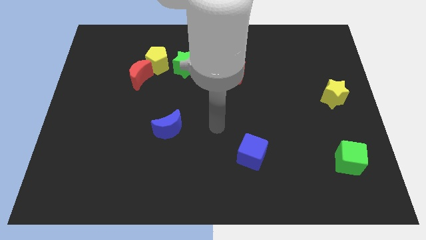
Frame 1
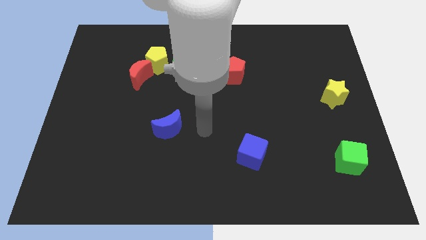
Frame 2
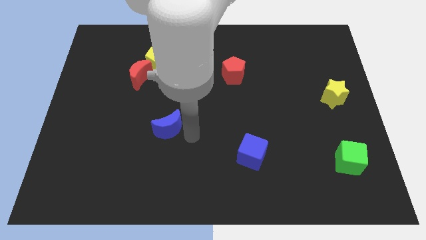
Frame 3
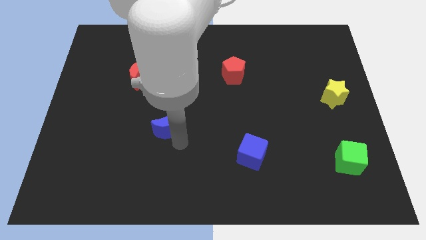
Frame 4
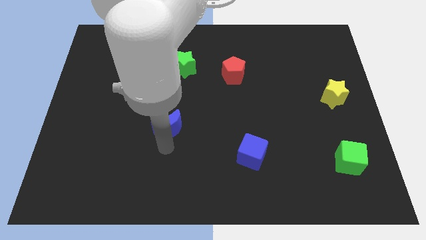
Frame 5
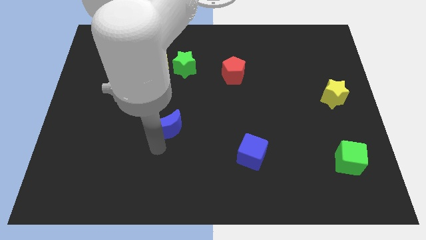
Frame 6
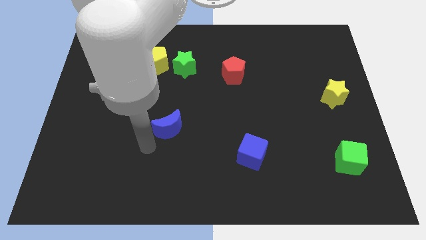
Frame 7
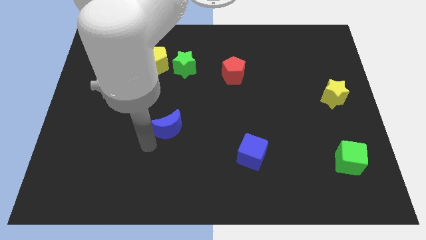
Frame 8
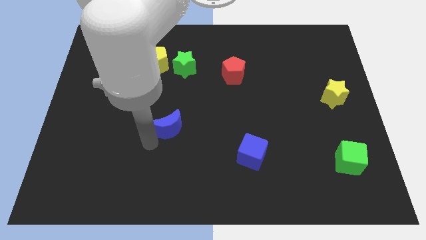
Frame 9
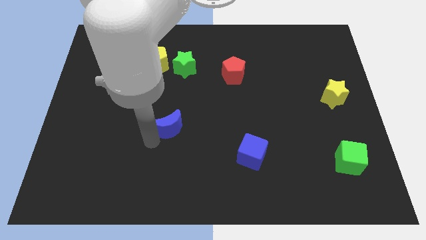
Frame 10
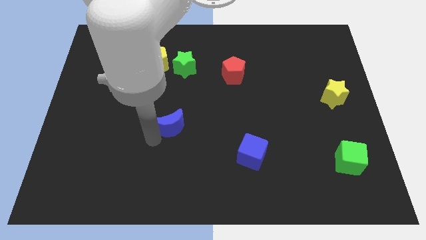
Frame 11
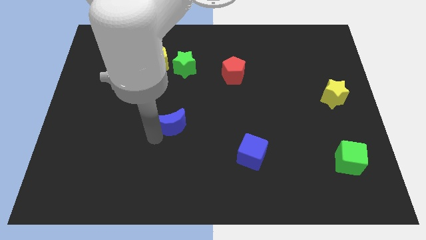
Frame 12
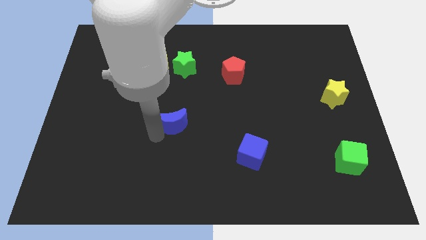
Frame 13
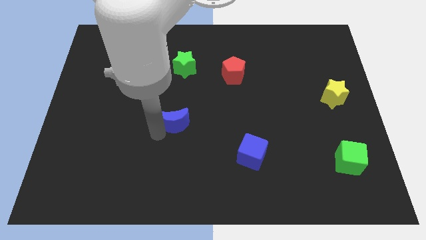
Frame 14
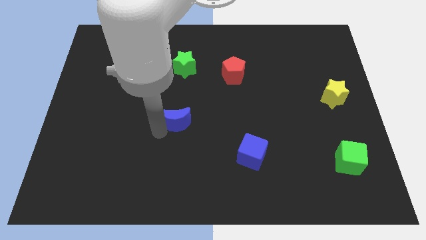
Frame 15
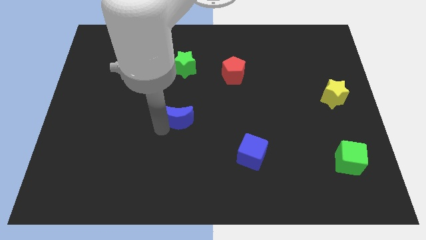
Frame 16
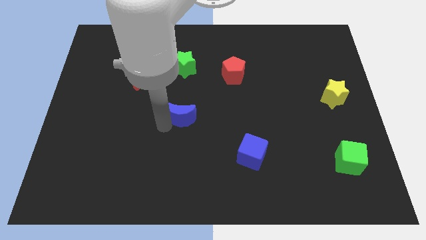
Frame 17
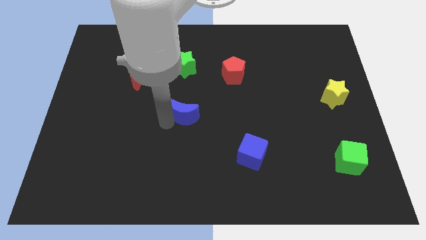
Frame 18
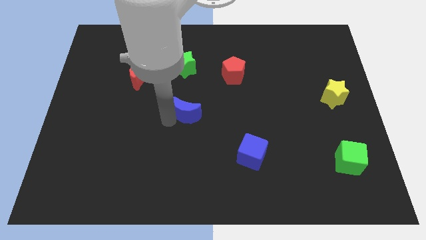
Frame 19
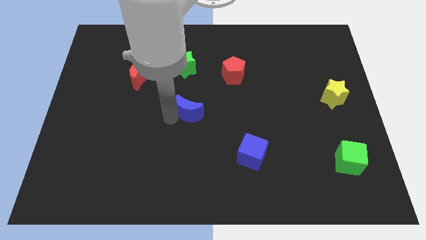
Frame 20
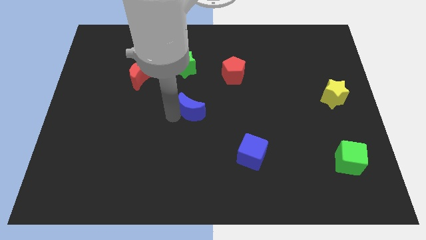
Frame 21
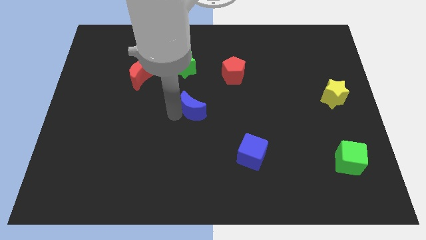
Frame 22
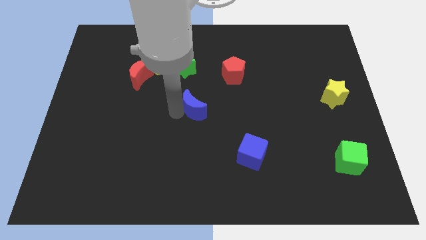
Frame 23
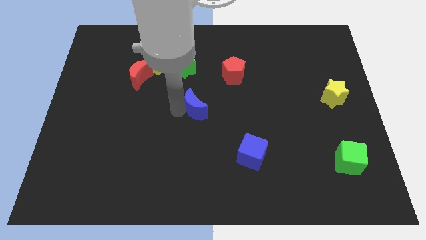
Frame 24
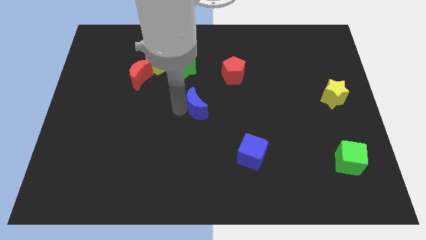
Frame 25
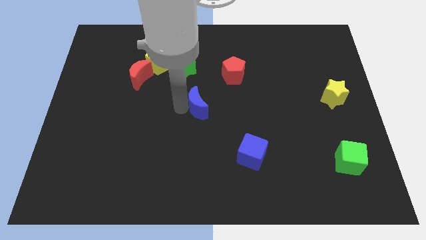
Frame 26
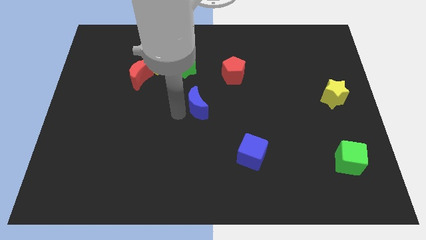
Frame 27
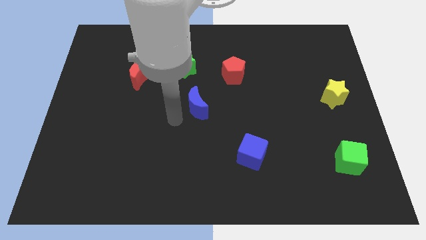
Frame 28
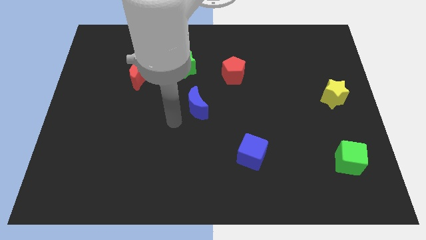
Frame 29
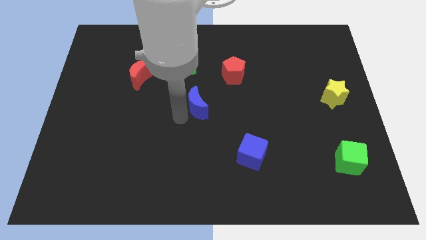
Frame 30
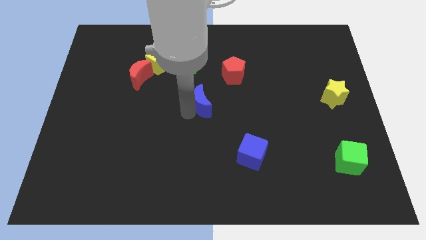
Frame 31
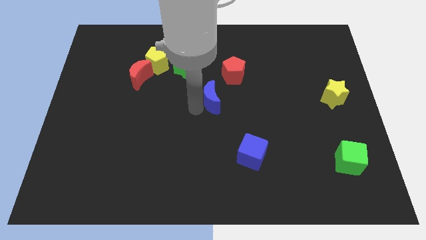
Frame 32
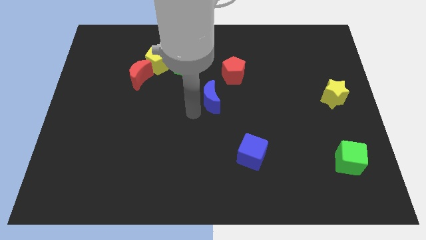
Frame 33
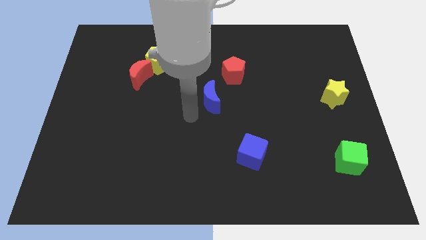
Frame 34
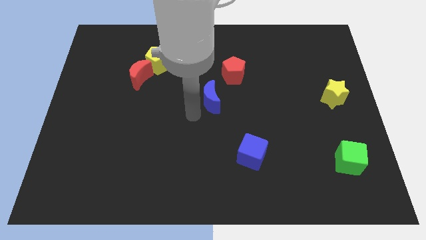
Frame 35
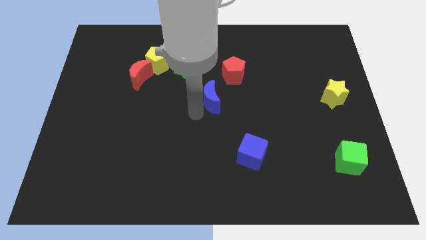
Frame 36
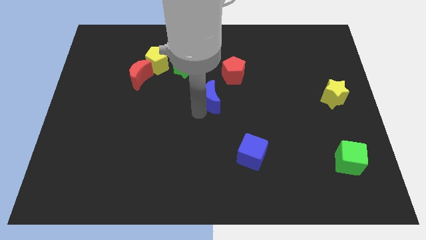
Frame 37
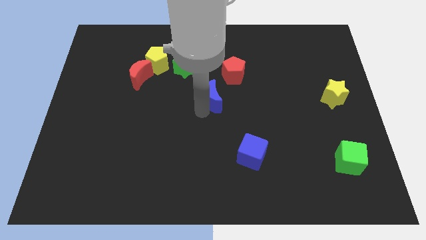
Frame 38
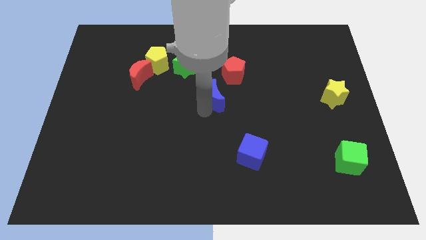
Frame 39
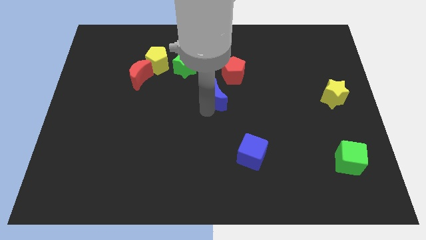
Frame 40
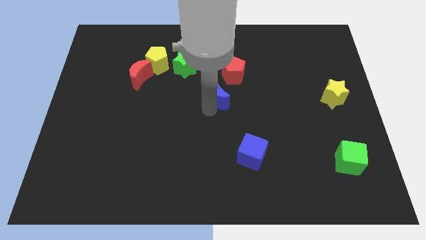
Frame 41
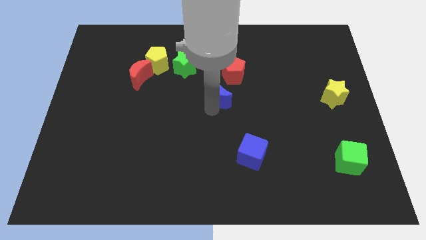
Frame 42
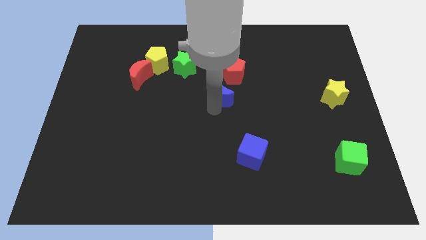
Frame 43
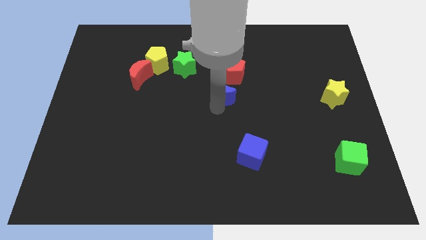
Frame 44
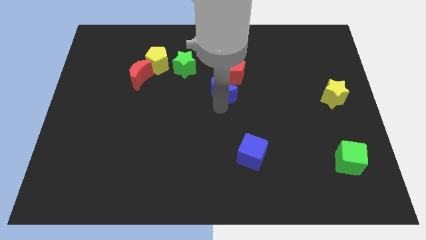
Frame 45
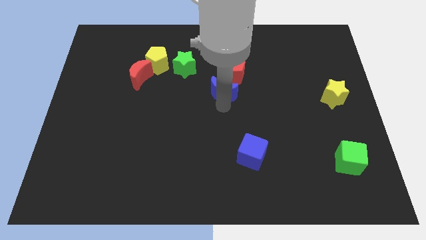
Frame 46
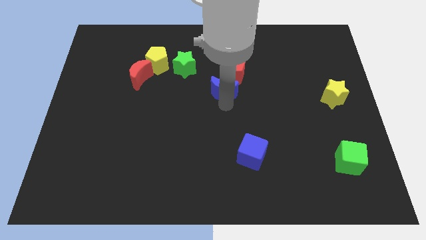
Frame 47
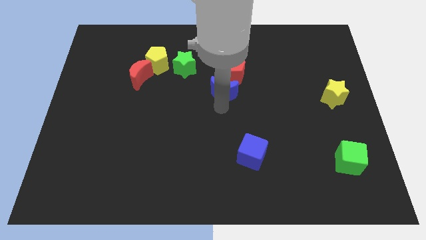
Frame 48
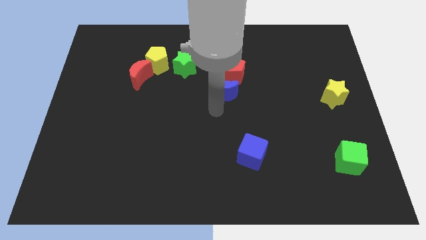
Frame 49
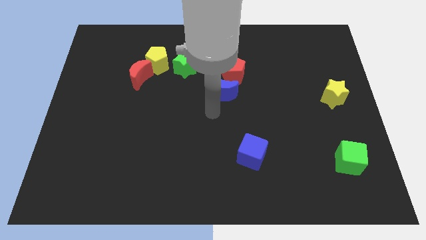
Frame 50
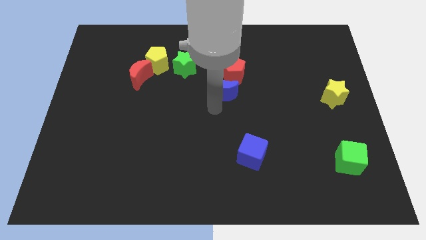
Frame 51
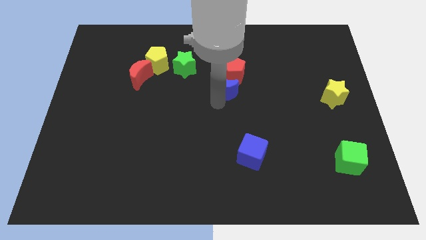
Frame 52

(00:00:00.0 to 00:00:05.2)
put the blue moon close to the red pentagon

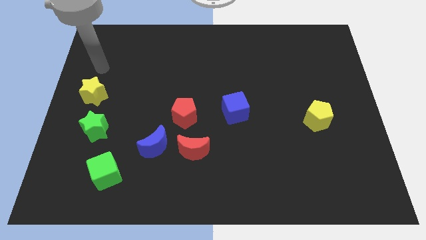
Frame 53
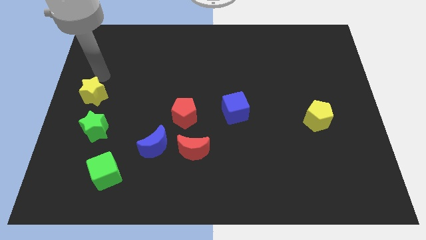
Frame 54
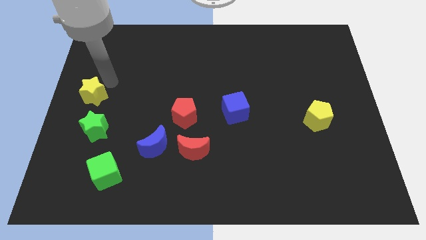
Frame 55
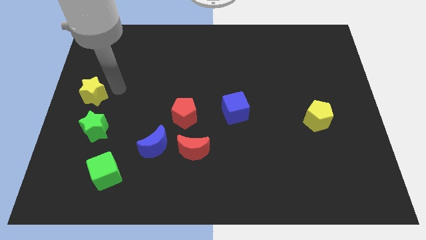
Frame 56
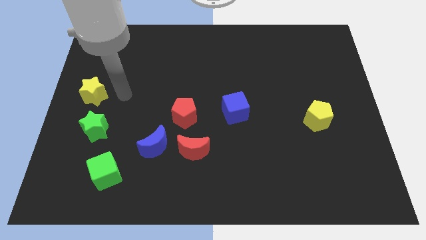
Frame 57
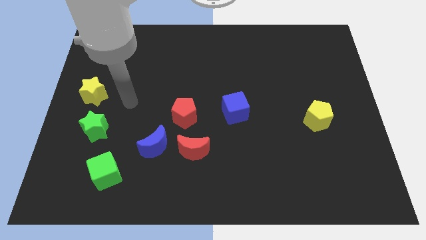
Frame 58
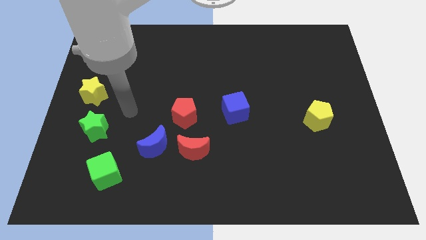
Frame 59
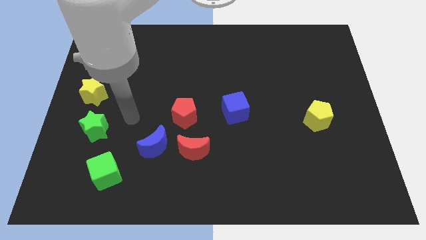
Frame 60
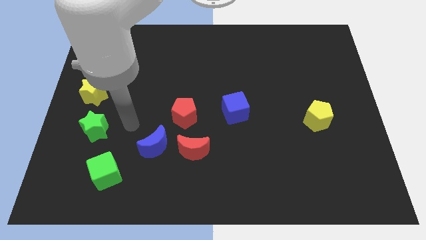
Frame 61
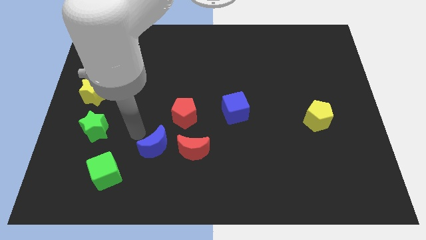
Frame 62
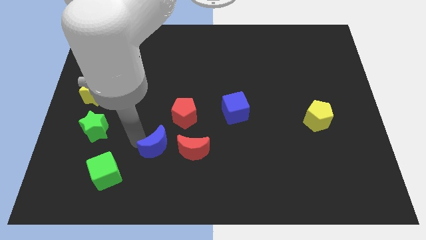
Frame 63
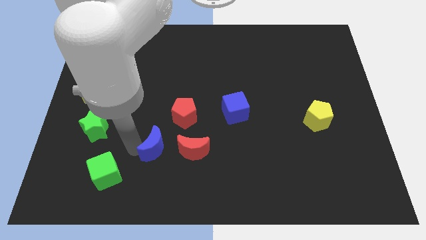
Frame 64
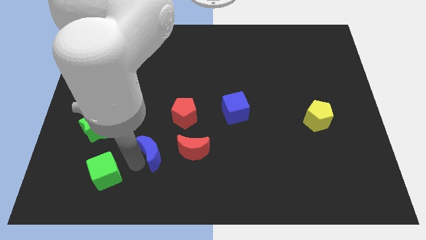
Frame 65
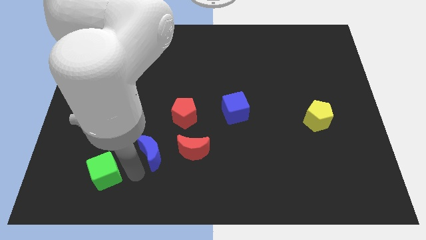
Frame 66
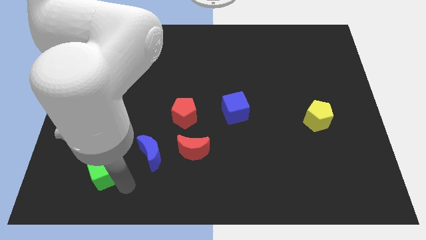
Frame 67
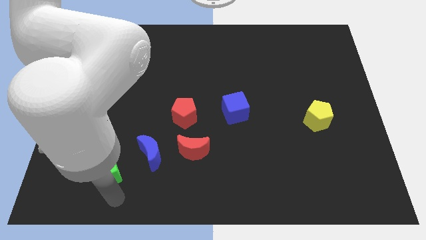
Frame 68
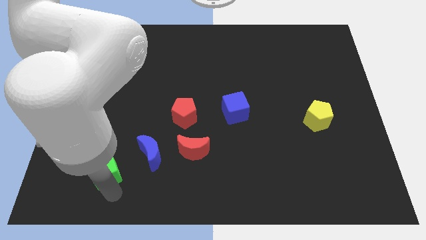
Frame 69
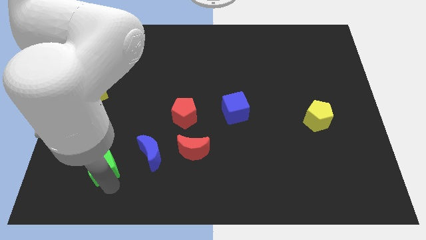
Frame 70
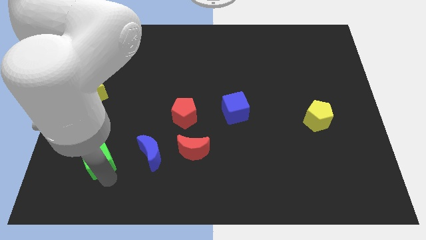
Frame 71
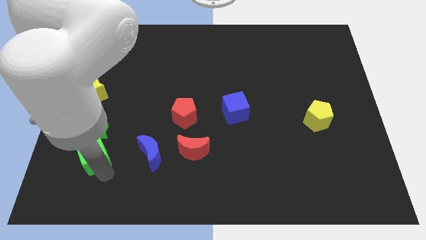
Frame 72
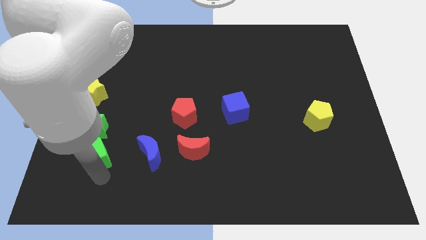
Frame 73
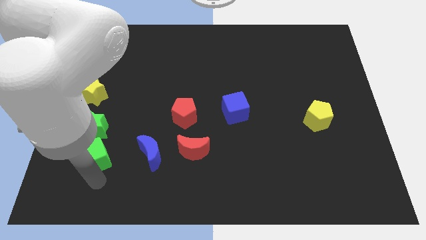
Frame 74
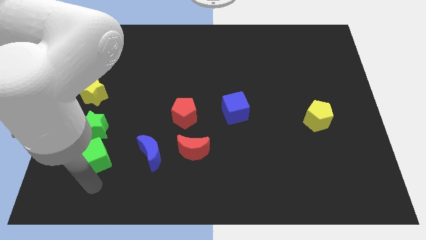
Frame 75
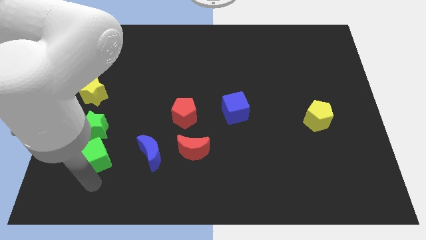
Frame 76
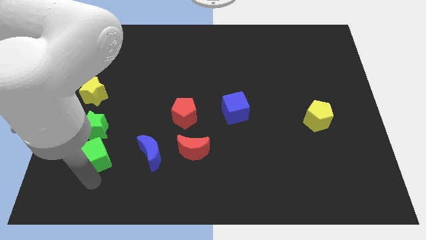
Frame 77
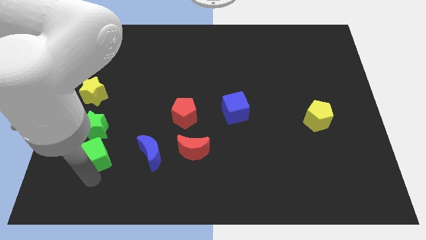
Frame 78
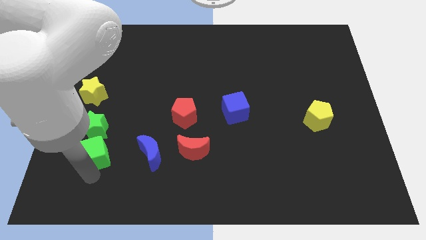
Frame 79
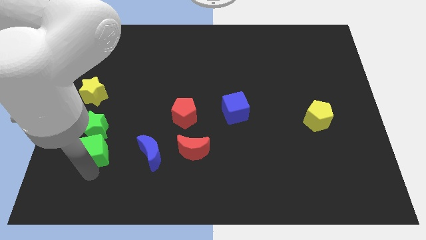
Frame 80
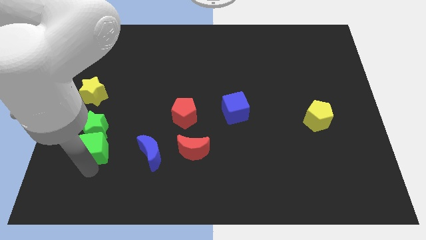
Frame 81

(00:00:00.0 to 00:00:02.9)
move the green cube next to the green star
